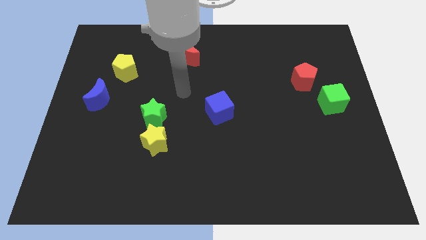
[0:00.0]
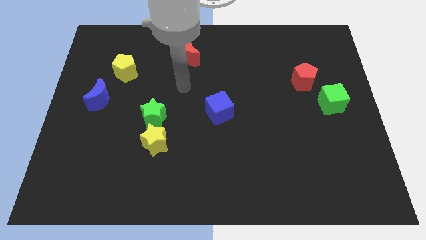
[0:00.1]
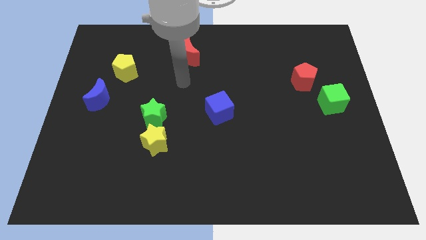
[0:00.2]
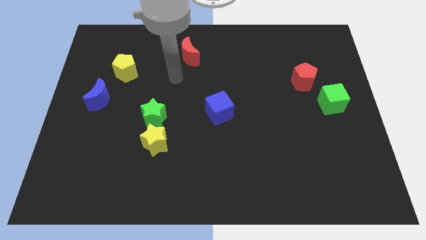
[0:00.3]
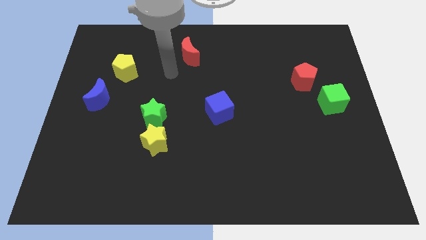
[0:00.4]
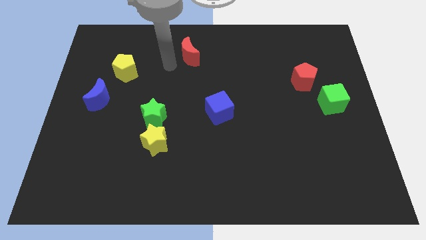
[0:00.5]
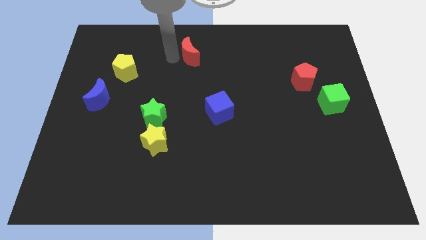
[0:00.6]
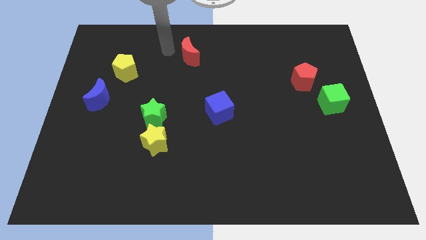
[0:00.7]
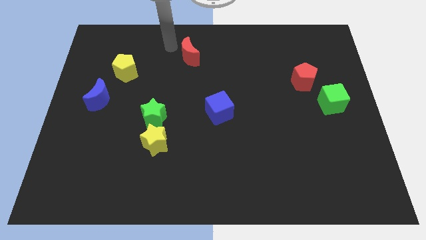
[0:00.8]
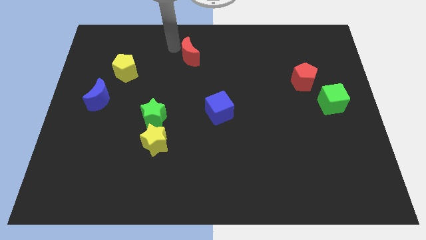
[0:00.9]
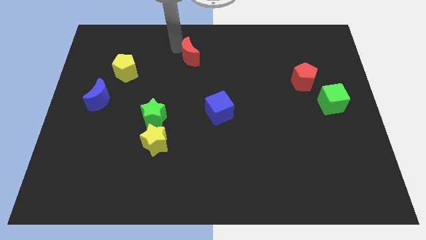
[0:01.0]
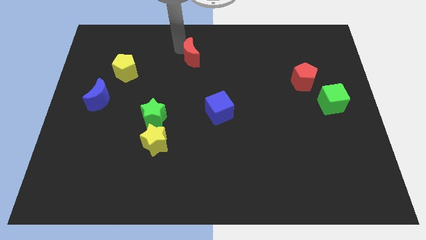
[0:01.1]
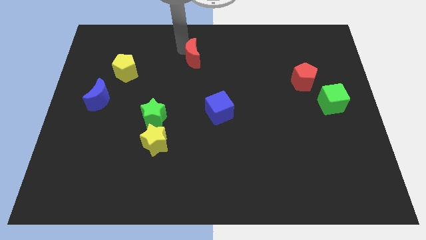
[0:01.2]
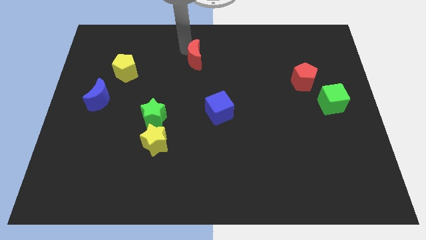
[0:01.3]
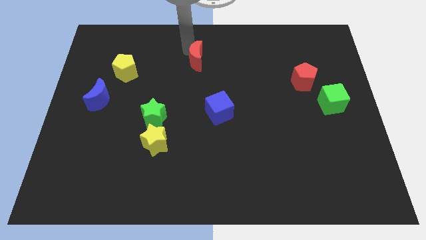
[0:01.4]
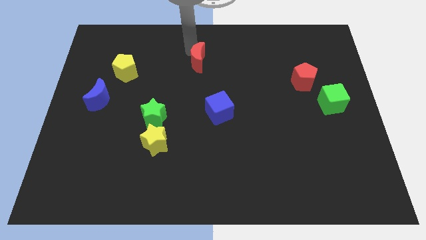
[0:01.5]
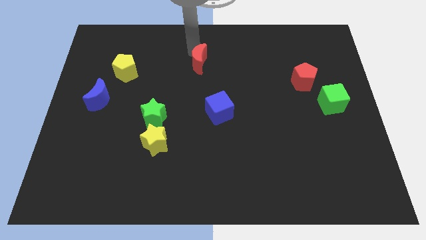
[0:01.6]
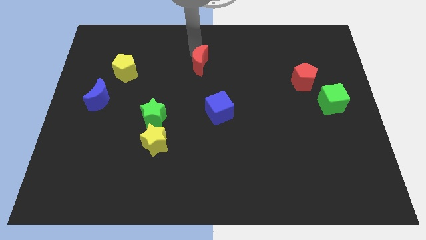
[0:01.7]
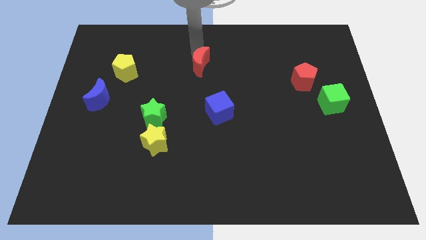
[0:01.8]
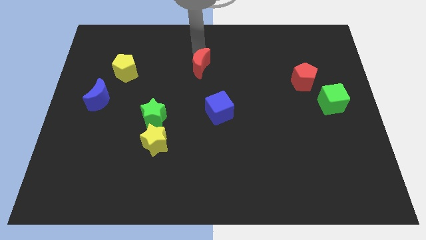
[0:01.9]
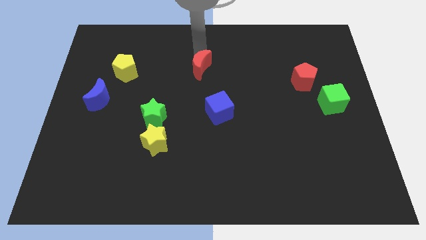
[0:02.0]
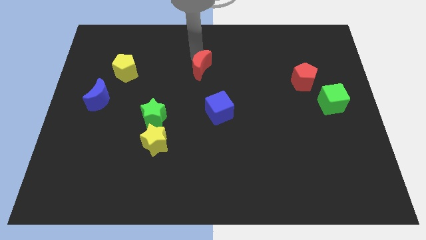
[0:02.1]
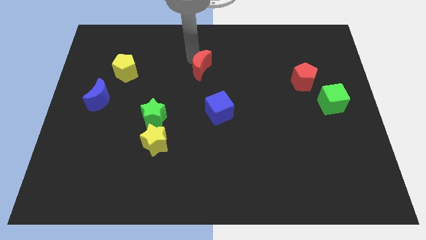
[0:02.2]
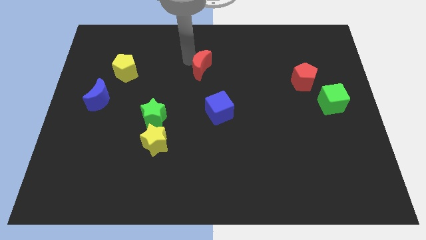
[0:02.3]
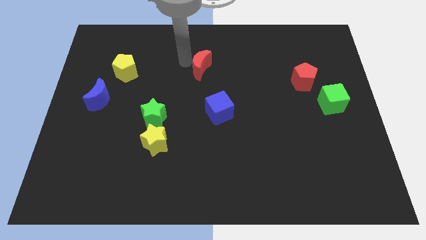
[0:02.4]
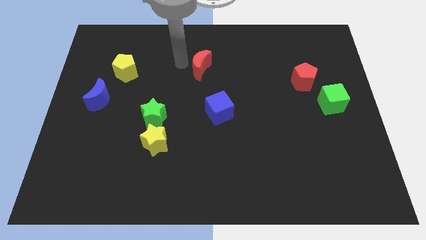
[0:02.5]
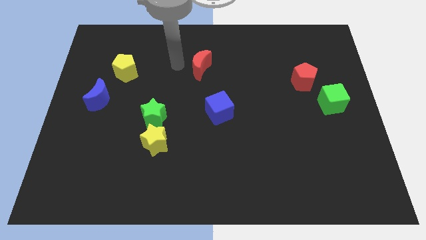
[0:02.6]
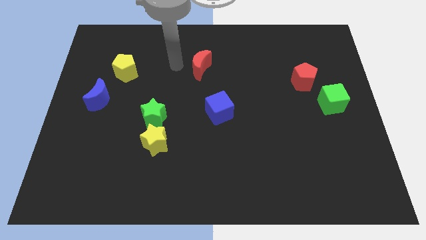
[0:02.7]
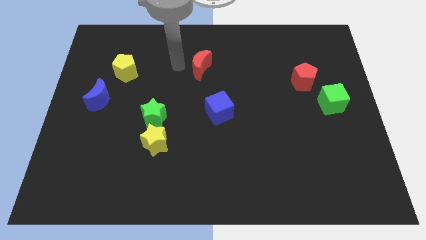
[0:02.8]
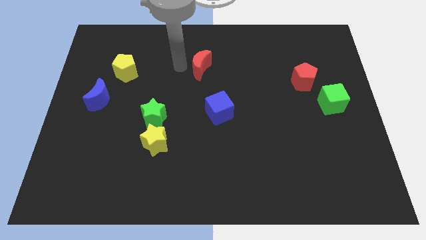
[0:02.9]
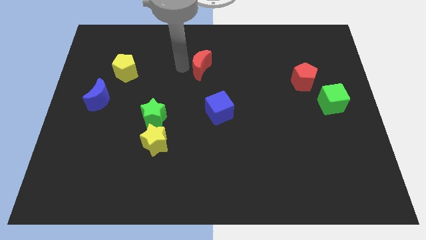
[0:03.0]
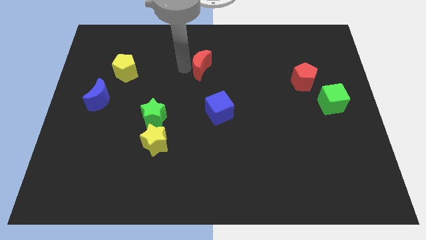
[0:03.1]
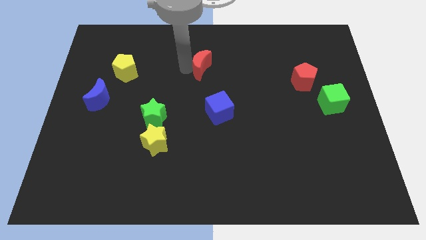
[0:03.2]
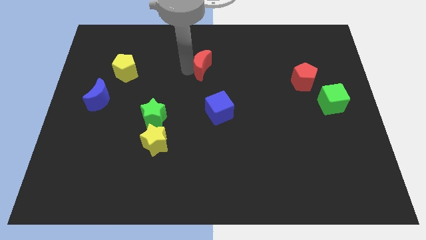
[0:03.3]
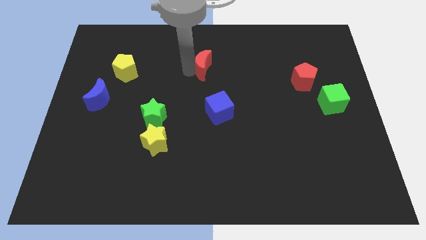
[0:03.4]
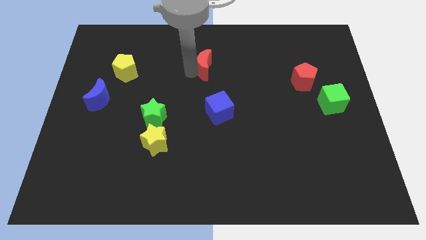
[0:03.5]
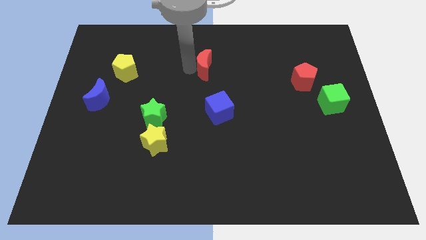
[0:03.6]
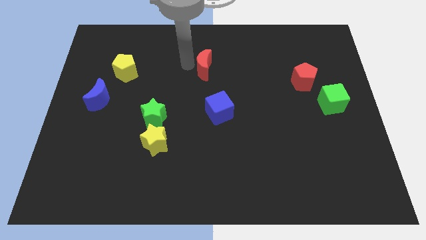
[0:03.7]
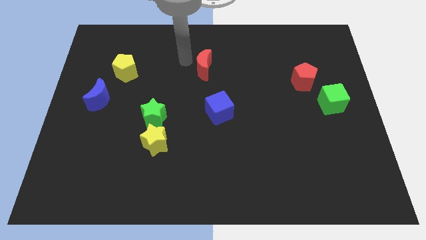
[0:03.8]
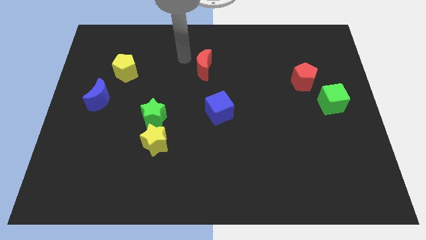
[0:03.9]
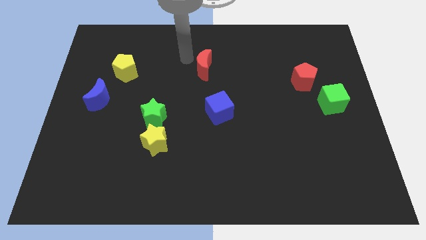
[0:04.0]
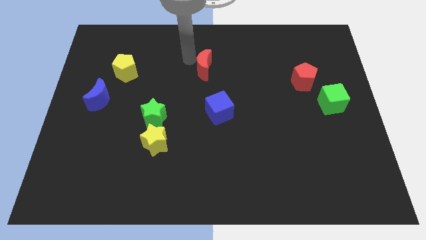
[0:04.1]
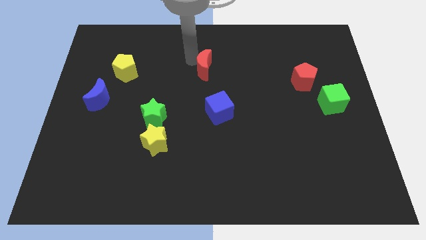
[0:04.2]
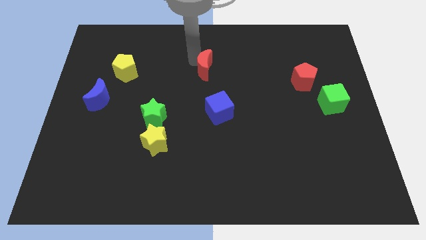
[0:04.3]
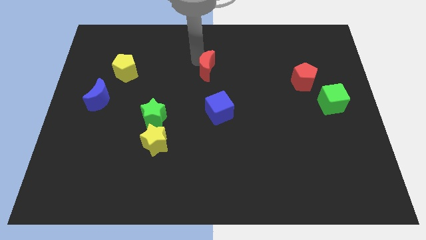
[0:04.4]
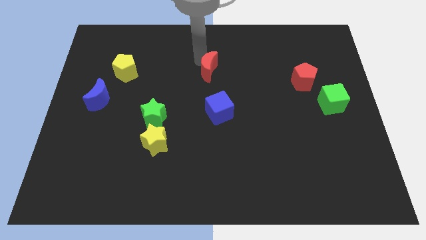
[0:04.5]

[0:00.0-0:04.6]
slightly move the red moon downwards and then to the right

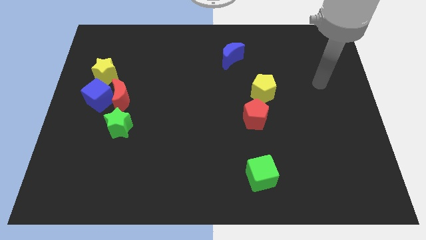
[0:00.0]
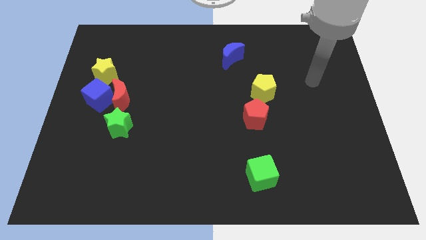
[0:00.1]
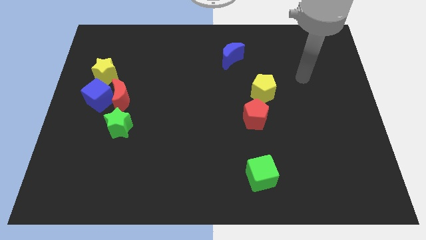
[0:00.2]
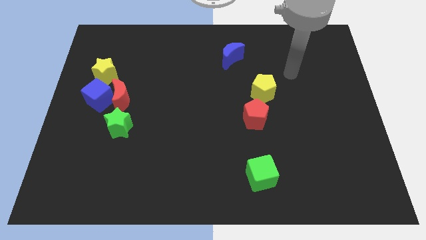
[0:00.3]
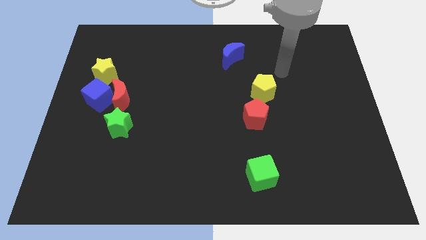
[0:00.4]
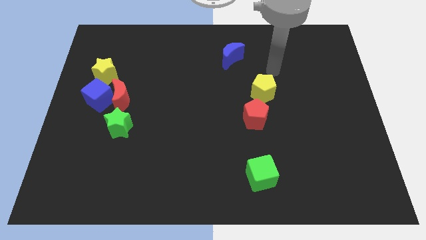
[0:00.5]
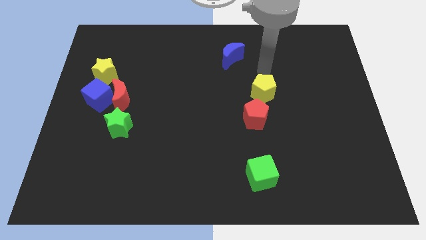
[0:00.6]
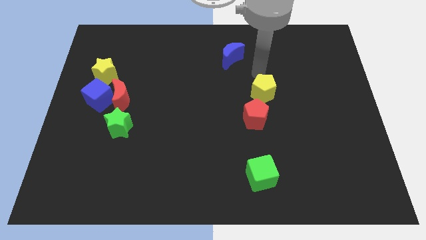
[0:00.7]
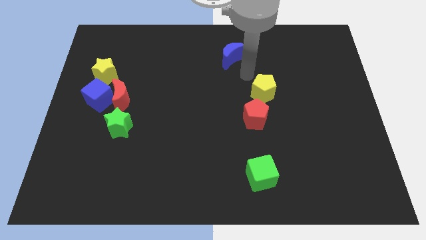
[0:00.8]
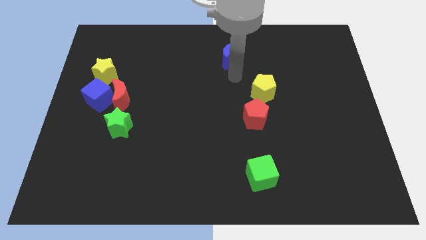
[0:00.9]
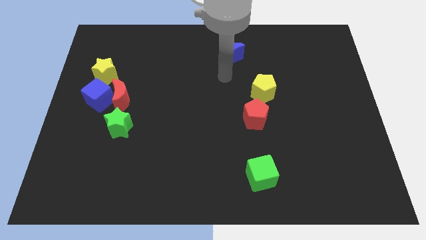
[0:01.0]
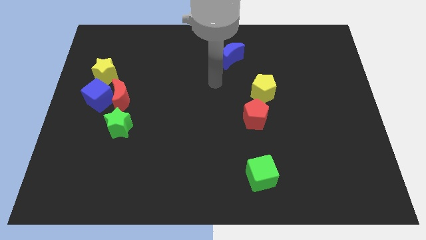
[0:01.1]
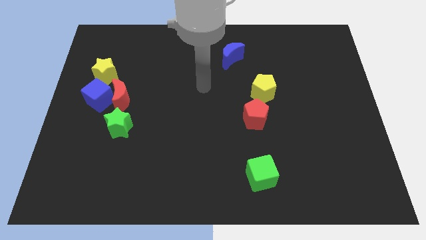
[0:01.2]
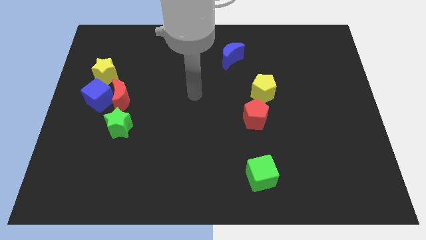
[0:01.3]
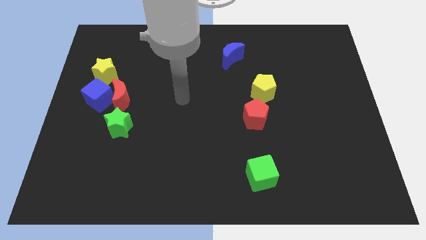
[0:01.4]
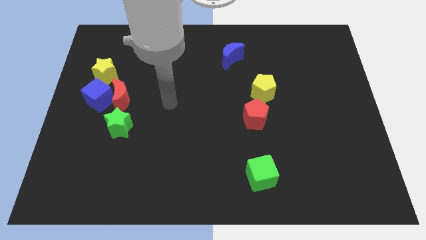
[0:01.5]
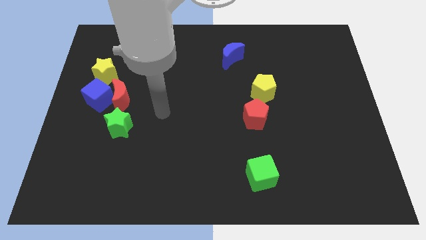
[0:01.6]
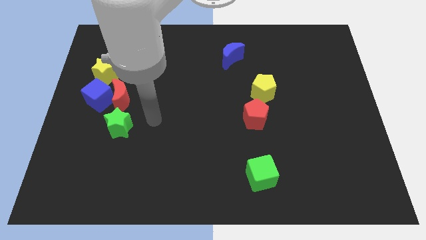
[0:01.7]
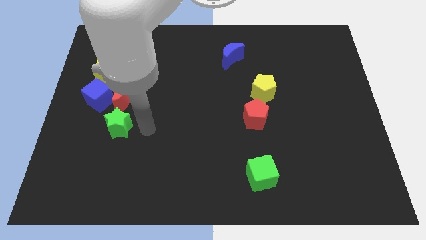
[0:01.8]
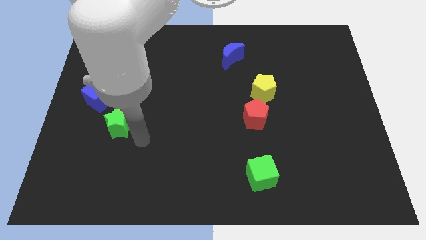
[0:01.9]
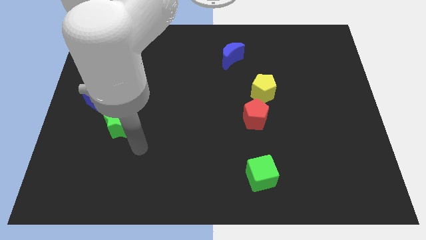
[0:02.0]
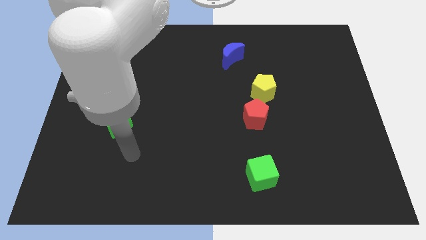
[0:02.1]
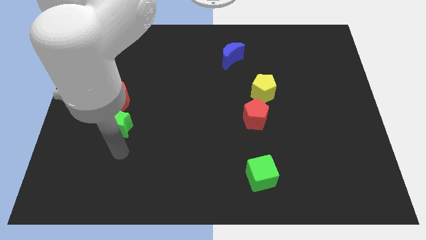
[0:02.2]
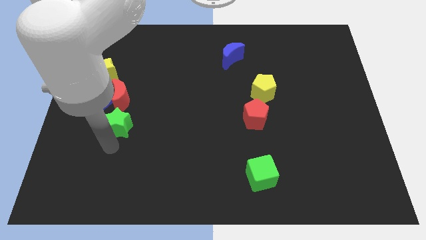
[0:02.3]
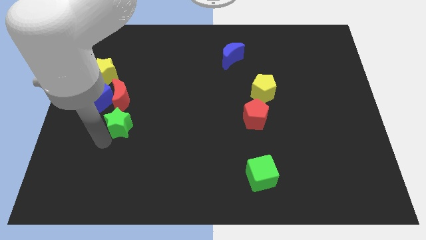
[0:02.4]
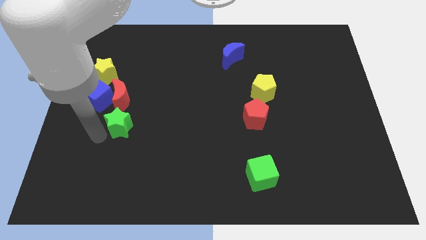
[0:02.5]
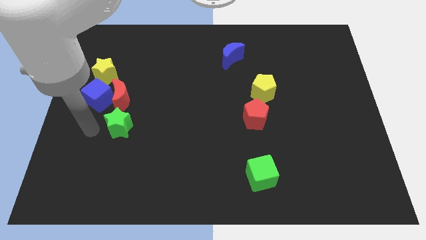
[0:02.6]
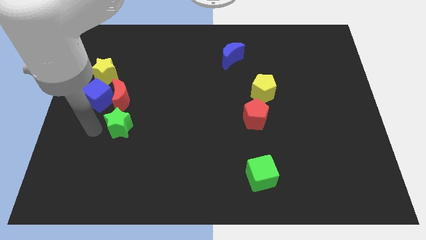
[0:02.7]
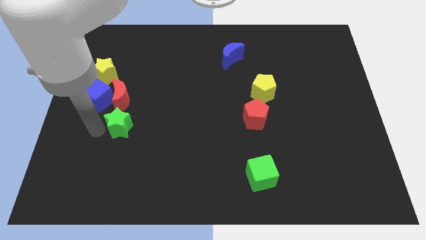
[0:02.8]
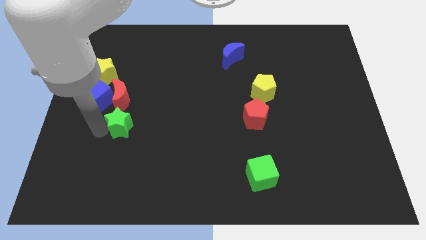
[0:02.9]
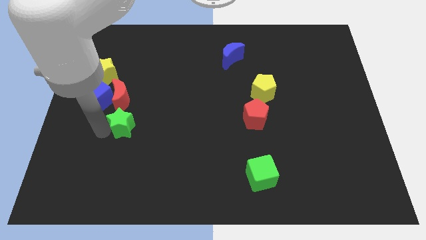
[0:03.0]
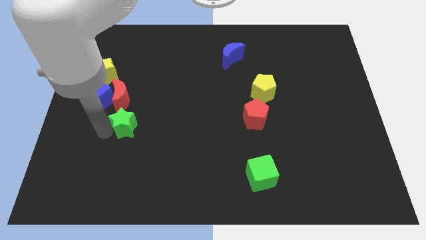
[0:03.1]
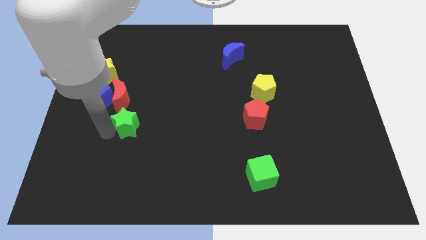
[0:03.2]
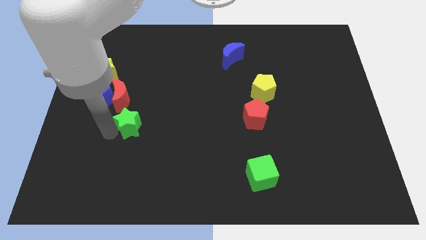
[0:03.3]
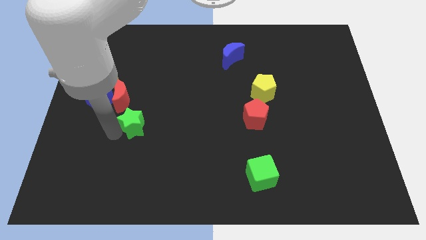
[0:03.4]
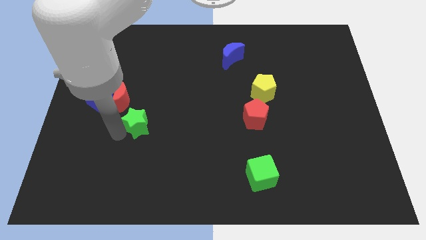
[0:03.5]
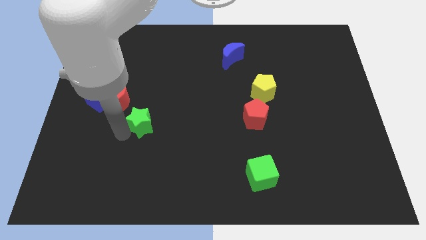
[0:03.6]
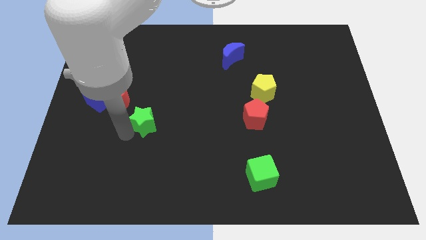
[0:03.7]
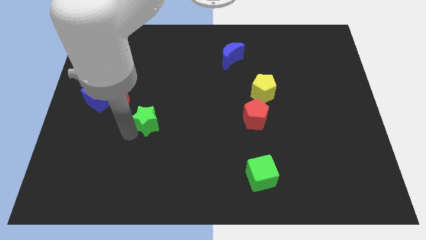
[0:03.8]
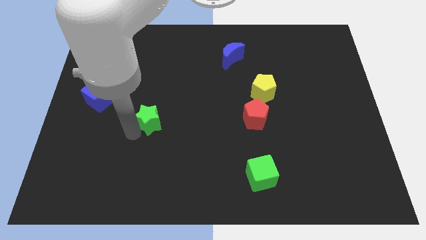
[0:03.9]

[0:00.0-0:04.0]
slide the green star right a little
